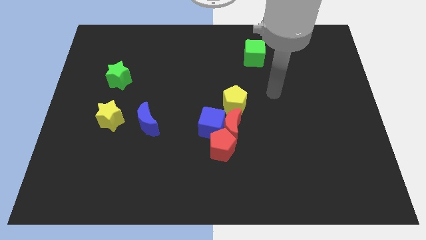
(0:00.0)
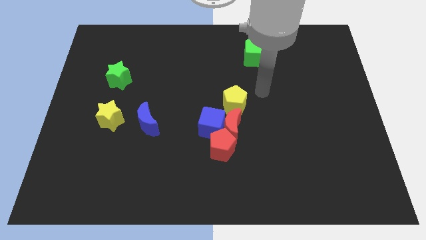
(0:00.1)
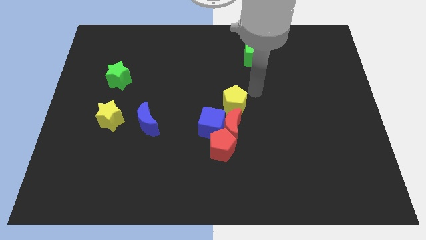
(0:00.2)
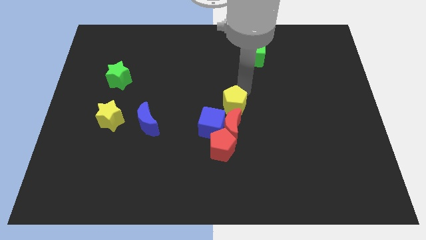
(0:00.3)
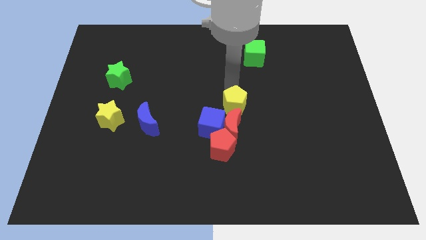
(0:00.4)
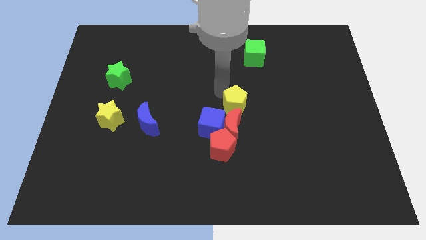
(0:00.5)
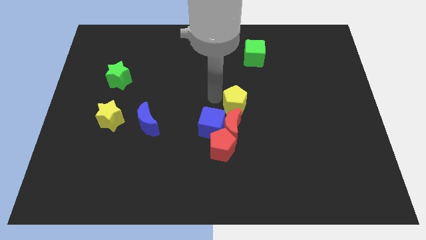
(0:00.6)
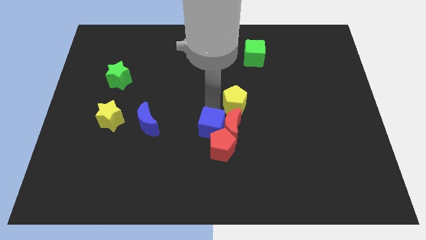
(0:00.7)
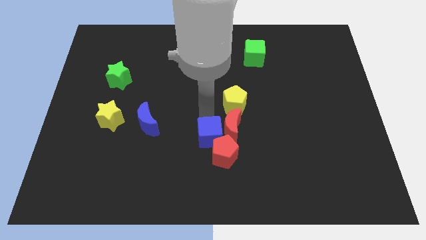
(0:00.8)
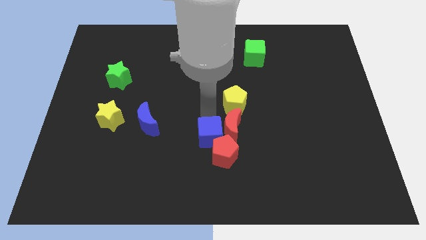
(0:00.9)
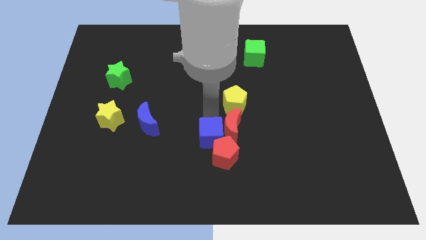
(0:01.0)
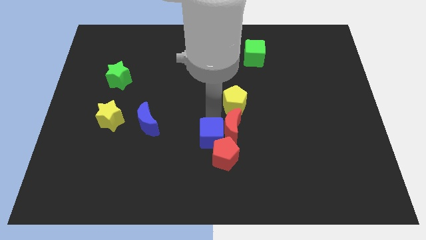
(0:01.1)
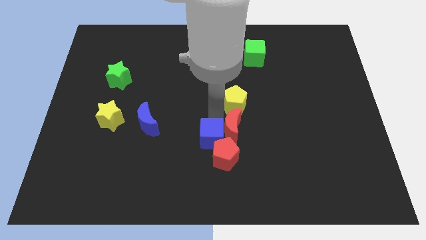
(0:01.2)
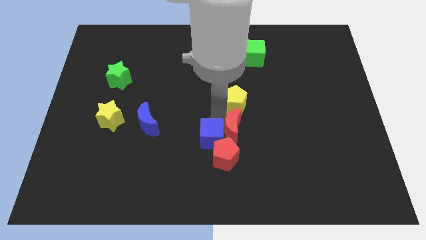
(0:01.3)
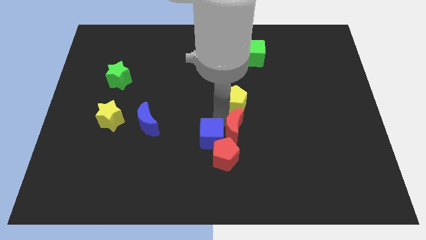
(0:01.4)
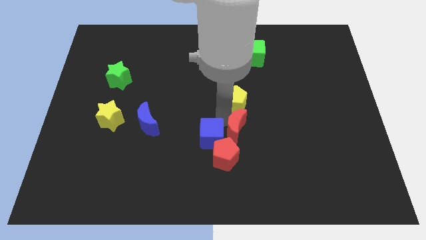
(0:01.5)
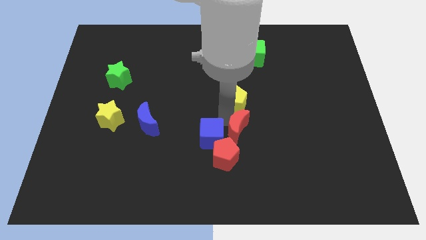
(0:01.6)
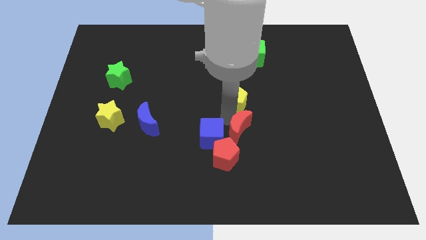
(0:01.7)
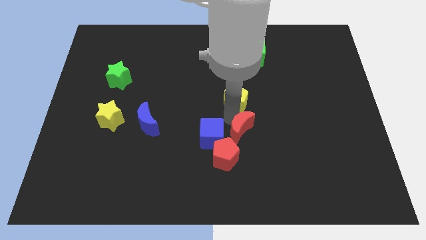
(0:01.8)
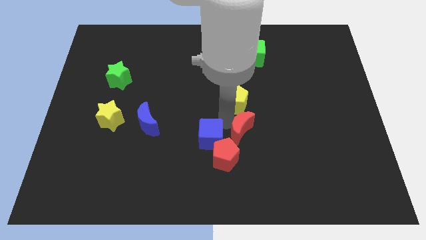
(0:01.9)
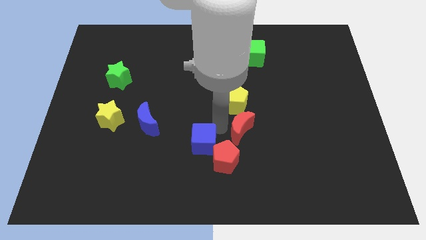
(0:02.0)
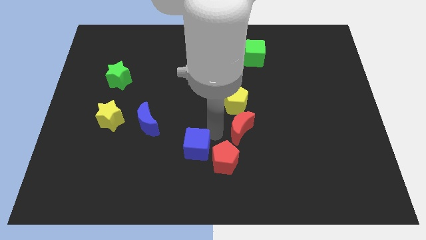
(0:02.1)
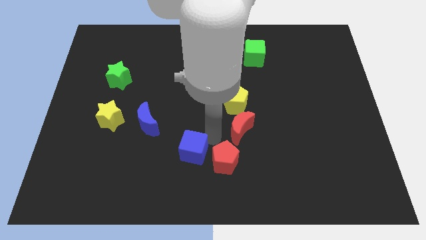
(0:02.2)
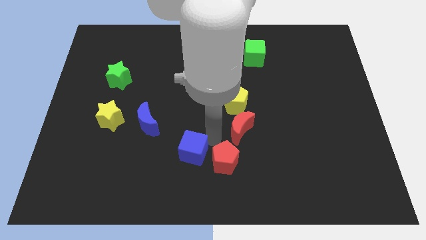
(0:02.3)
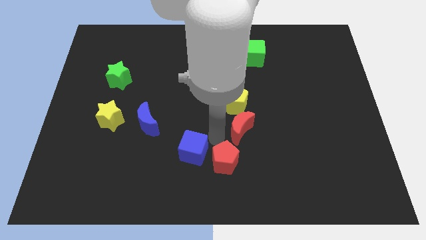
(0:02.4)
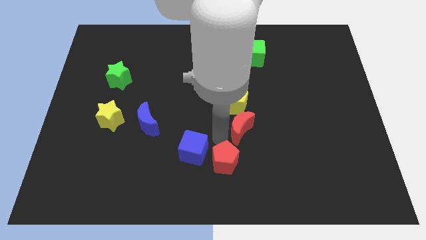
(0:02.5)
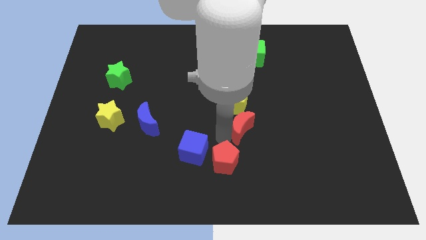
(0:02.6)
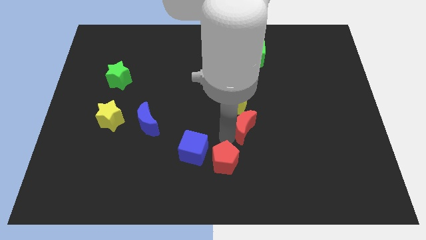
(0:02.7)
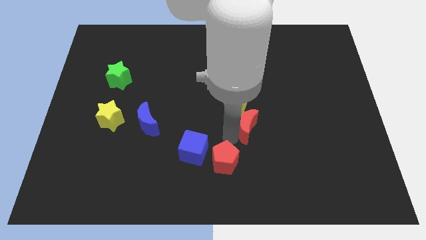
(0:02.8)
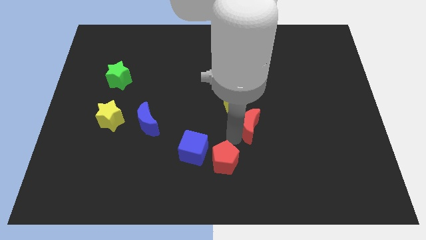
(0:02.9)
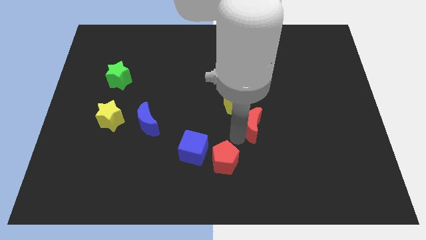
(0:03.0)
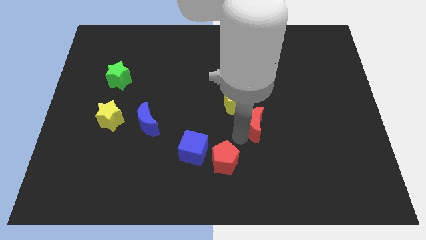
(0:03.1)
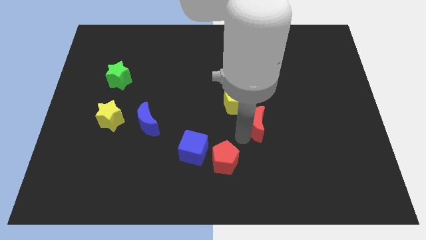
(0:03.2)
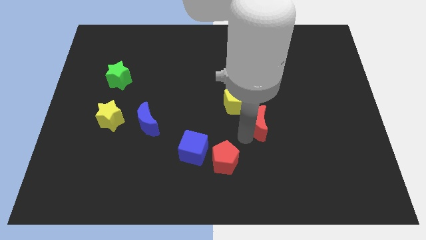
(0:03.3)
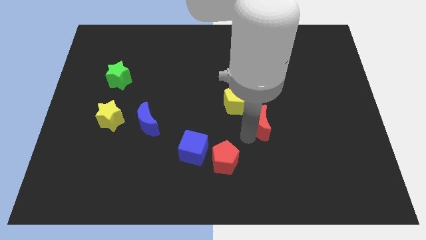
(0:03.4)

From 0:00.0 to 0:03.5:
separate the red moon from the blue cube, red pentagon, and yellow pentagon

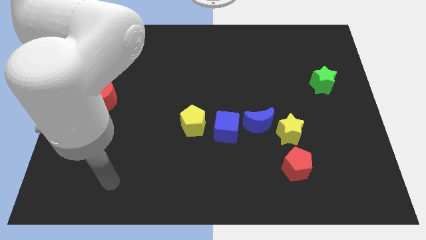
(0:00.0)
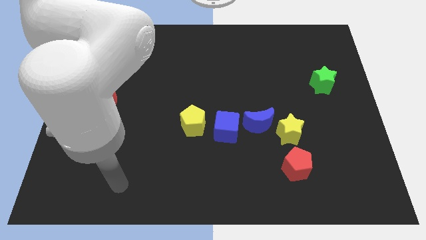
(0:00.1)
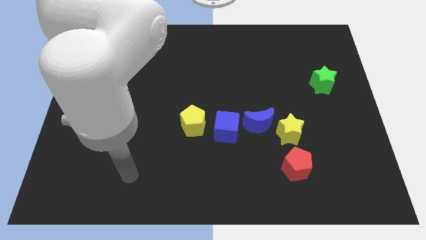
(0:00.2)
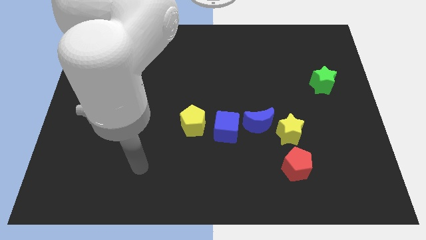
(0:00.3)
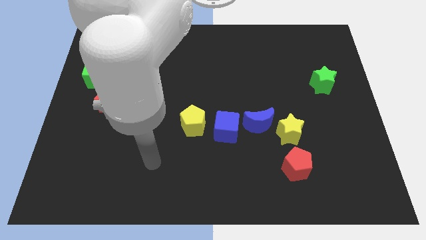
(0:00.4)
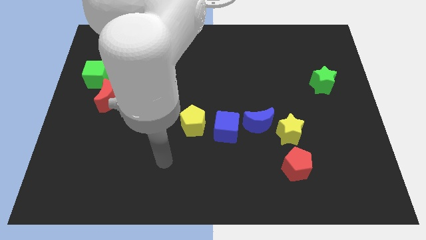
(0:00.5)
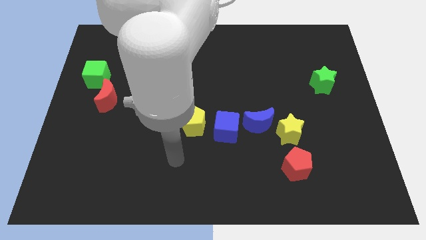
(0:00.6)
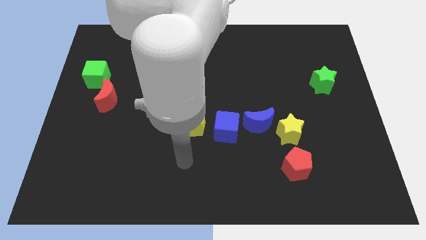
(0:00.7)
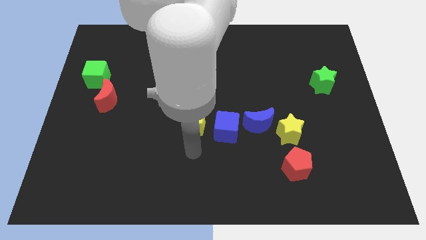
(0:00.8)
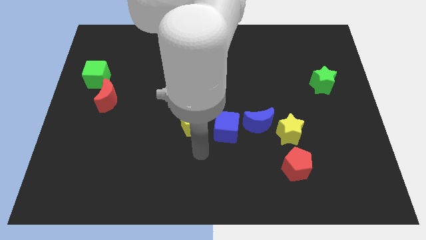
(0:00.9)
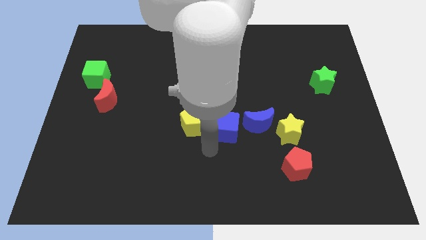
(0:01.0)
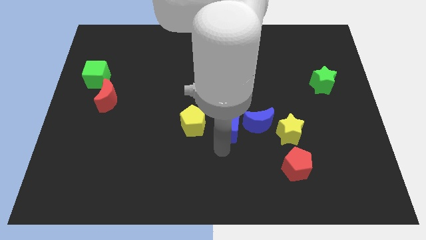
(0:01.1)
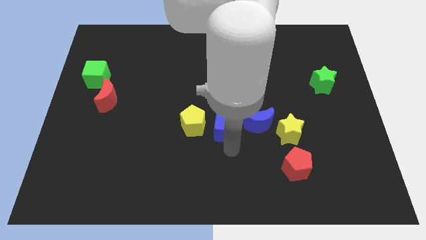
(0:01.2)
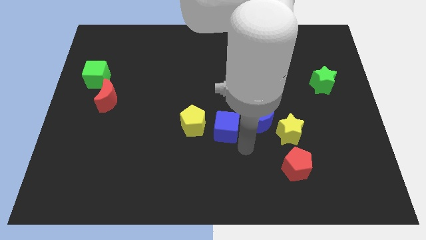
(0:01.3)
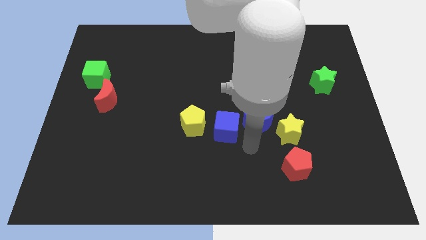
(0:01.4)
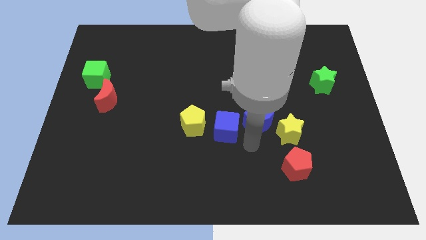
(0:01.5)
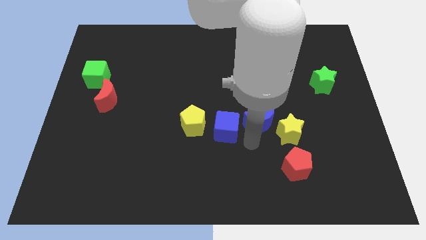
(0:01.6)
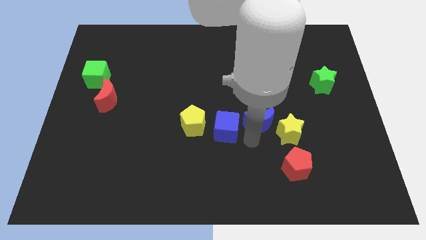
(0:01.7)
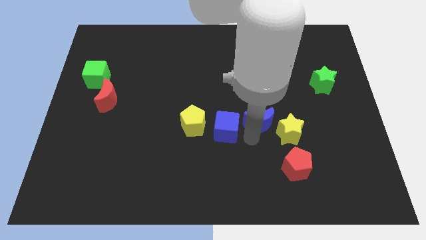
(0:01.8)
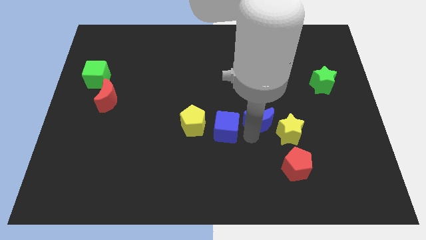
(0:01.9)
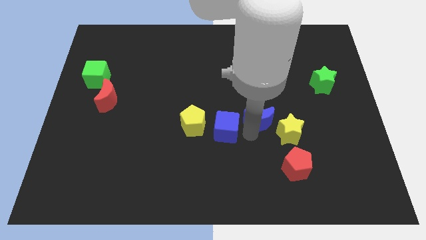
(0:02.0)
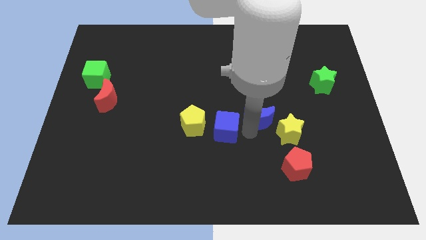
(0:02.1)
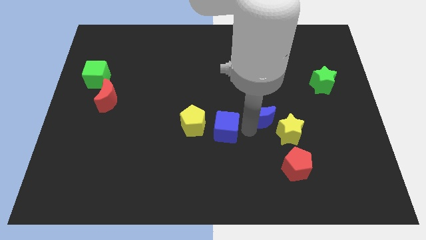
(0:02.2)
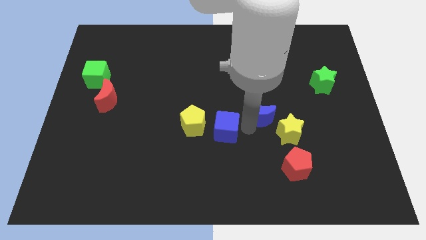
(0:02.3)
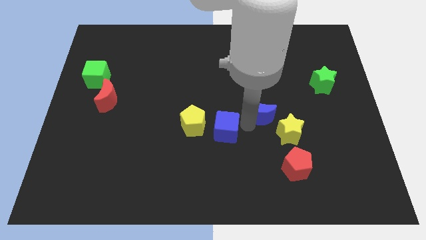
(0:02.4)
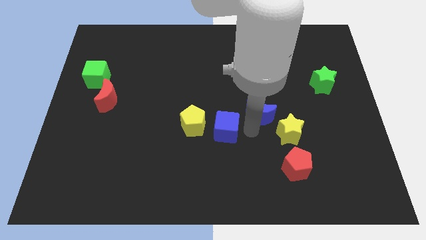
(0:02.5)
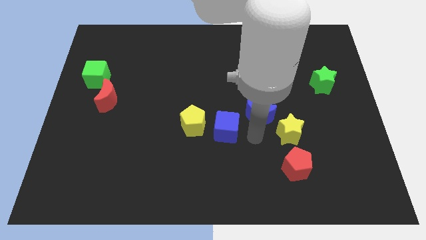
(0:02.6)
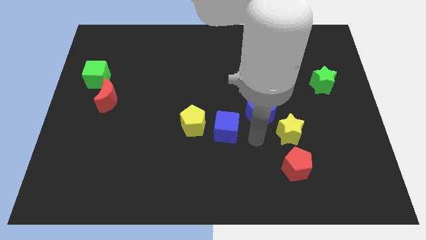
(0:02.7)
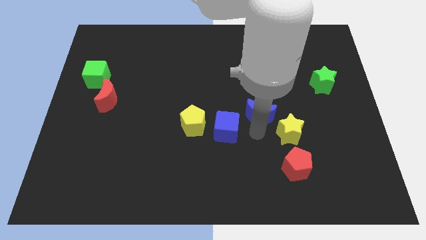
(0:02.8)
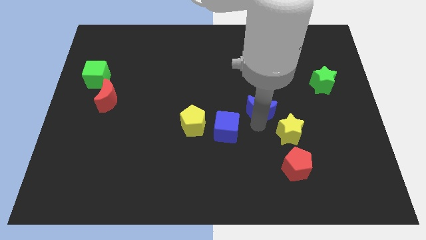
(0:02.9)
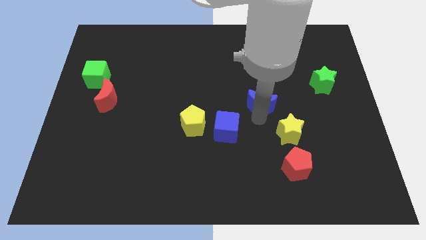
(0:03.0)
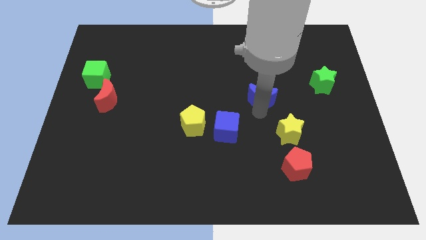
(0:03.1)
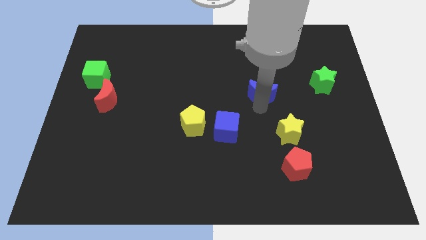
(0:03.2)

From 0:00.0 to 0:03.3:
separate the blue moon from the yellow star and blue cube

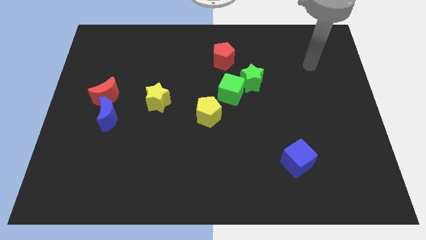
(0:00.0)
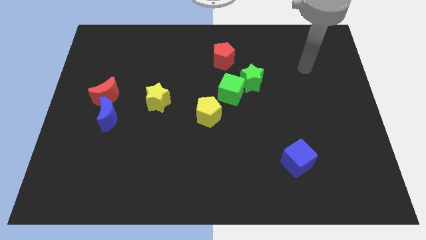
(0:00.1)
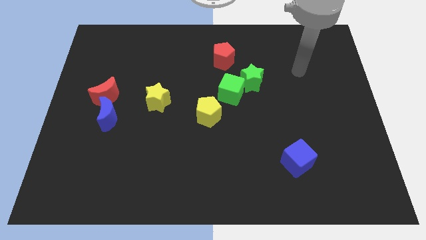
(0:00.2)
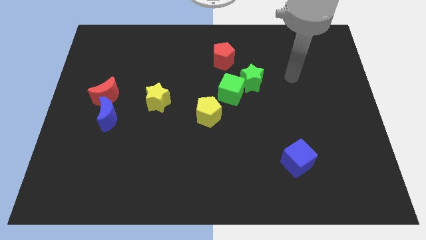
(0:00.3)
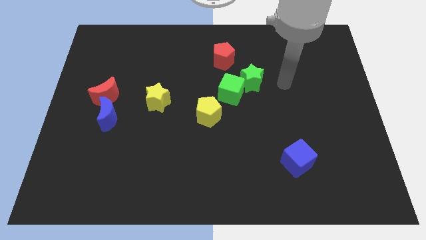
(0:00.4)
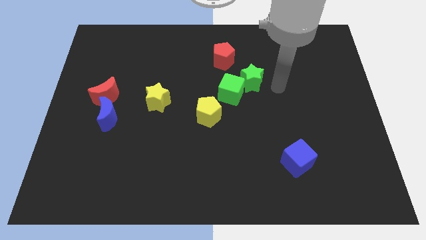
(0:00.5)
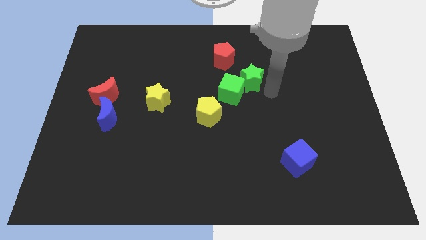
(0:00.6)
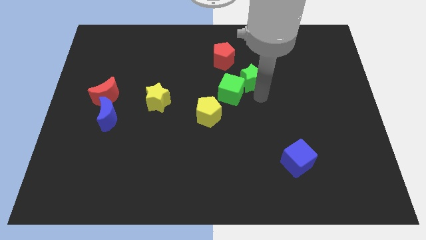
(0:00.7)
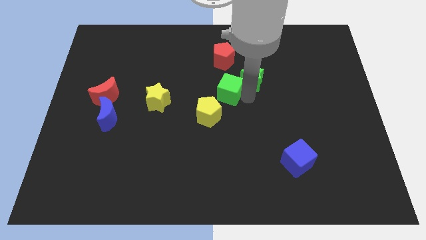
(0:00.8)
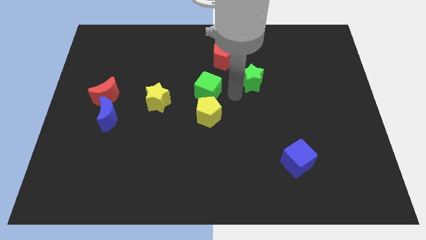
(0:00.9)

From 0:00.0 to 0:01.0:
pull the green star apart from the green cube

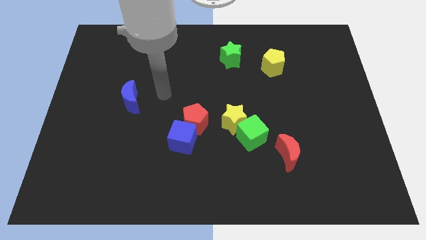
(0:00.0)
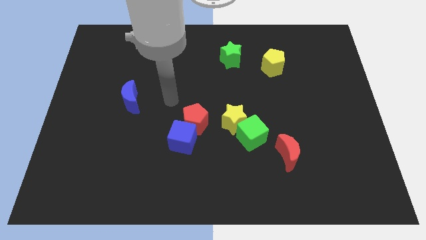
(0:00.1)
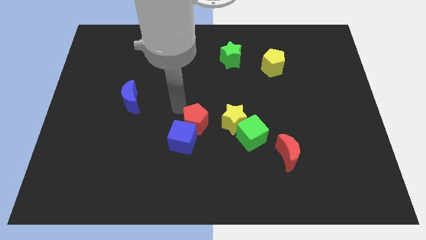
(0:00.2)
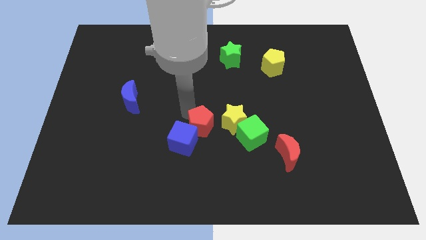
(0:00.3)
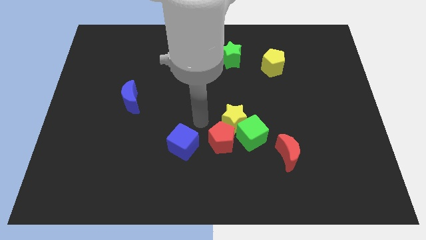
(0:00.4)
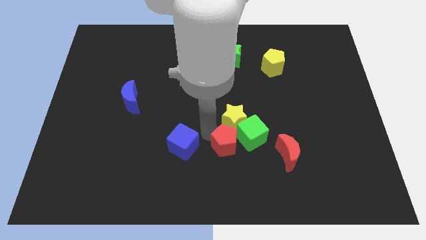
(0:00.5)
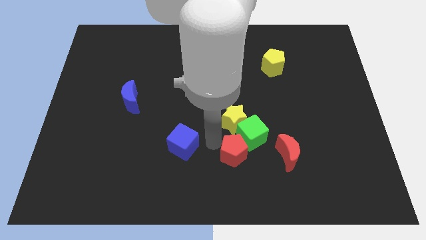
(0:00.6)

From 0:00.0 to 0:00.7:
move the blue cube away from the red pentagon
